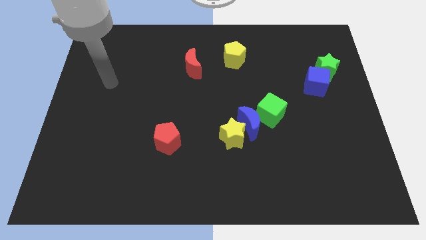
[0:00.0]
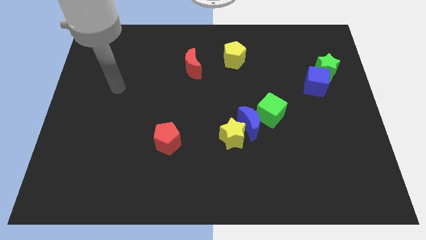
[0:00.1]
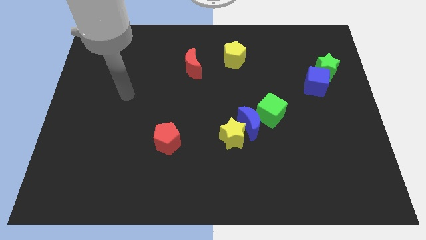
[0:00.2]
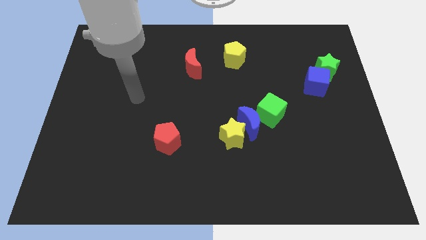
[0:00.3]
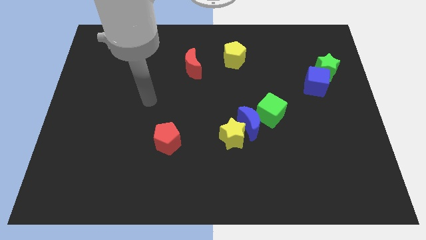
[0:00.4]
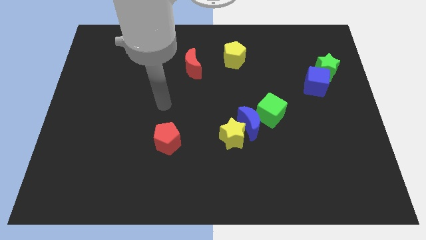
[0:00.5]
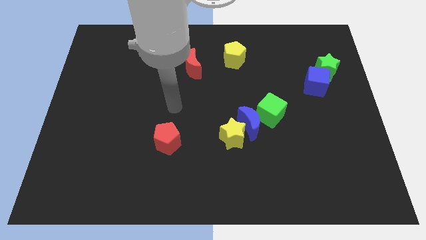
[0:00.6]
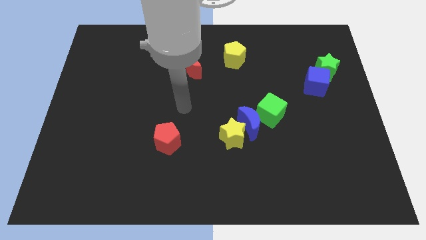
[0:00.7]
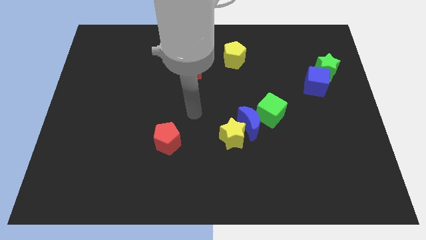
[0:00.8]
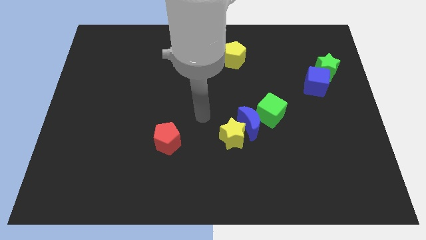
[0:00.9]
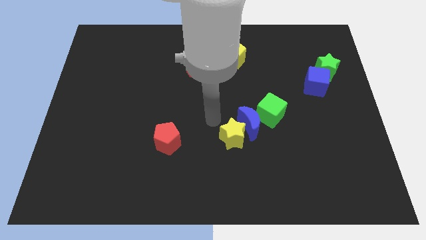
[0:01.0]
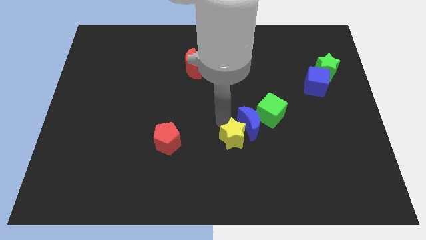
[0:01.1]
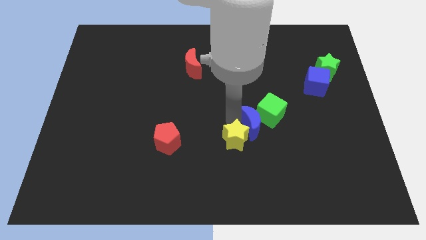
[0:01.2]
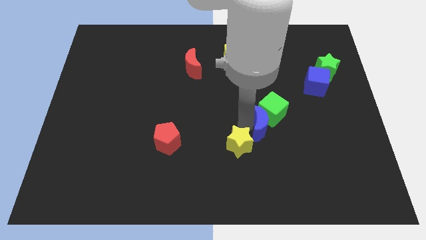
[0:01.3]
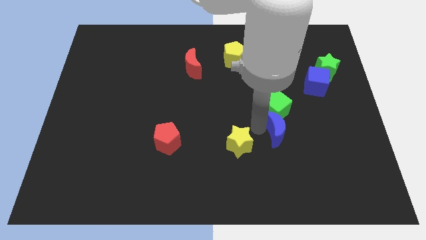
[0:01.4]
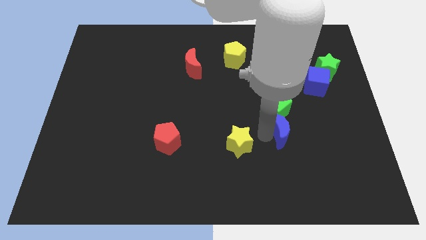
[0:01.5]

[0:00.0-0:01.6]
move the yellow star away from the blue moon

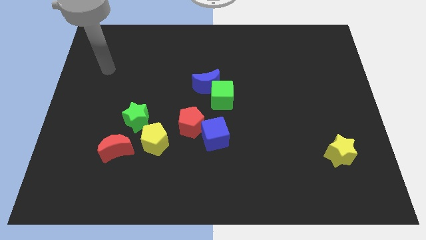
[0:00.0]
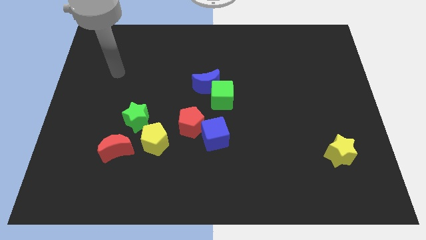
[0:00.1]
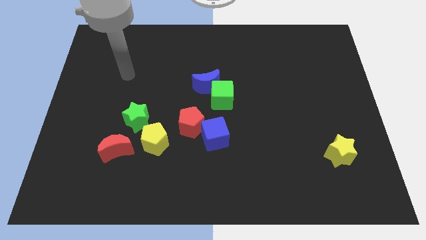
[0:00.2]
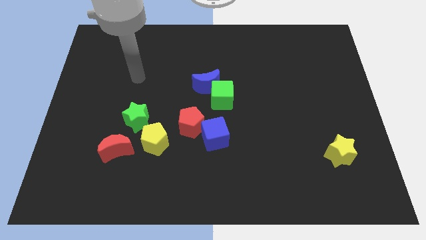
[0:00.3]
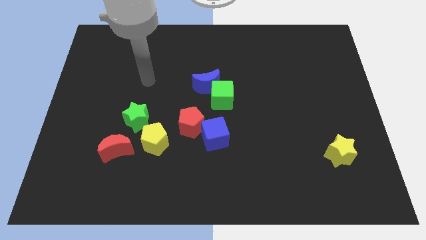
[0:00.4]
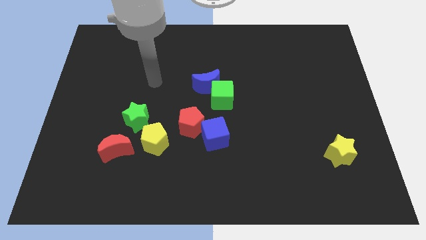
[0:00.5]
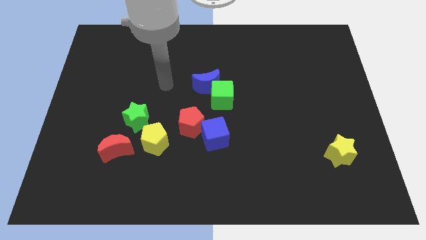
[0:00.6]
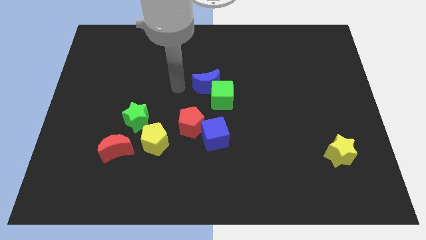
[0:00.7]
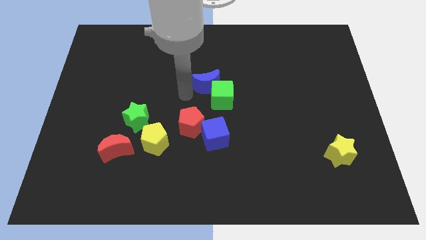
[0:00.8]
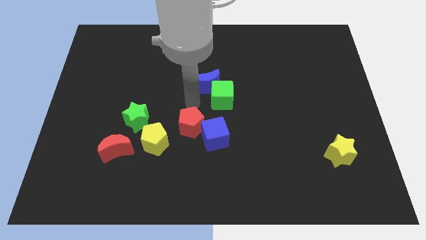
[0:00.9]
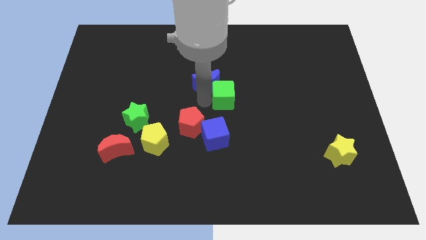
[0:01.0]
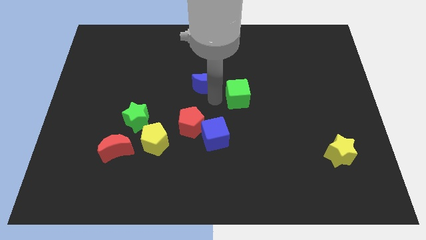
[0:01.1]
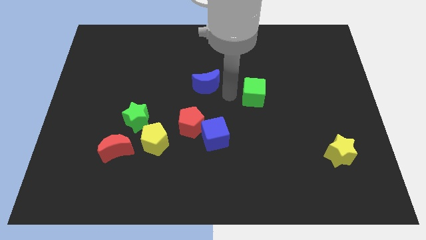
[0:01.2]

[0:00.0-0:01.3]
pull the blue moon apart from the green cube

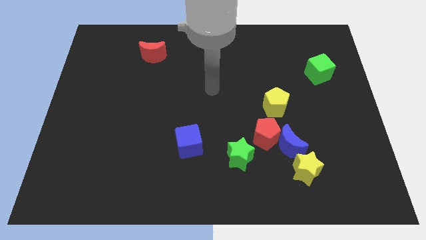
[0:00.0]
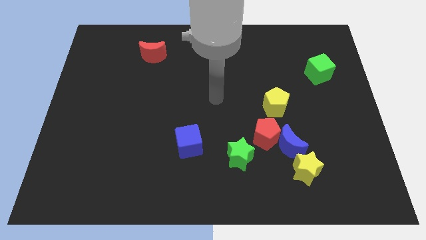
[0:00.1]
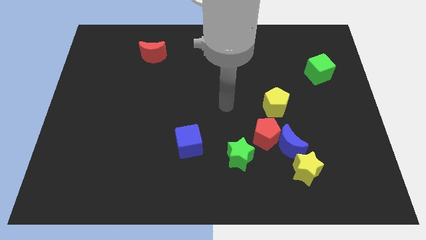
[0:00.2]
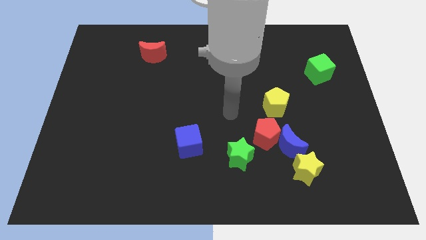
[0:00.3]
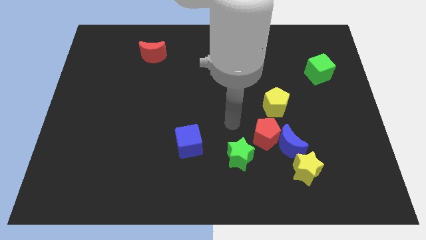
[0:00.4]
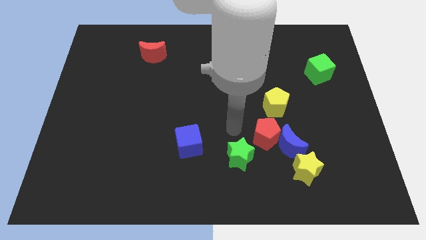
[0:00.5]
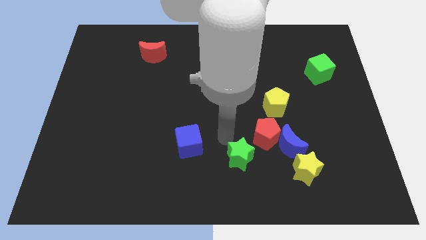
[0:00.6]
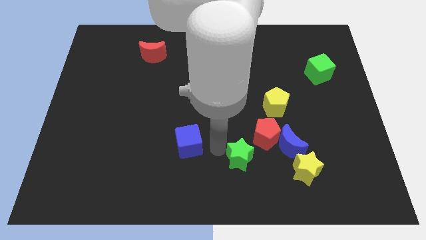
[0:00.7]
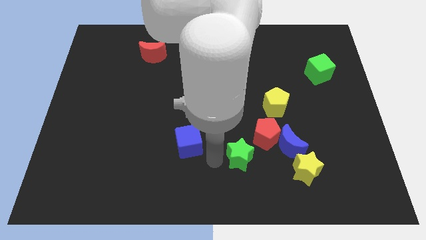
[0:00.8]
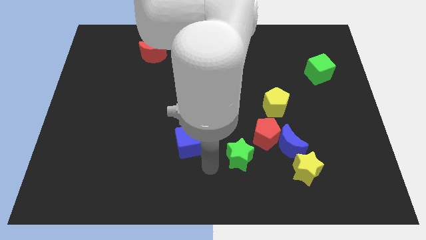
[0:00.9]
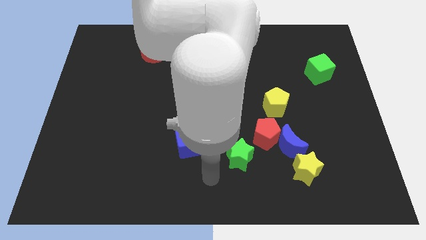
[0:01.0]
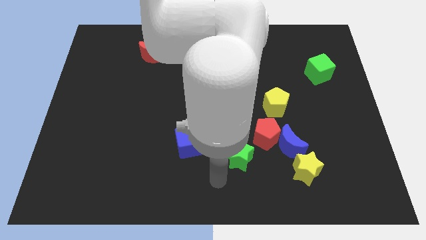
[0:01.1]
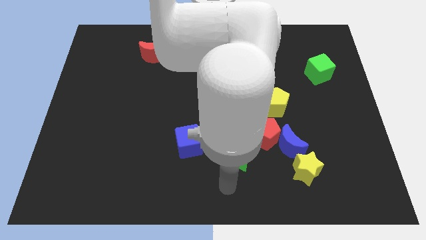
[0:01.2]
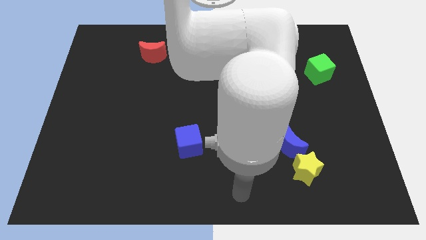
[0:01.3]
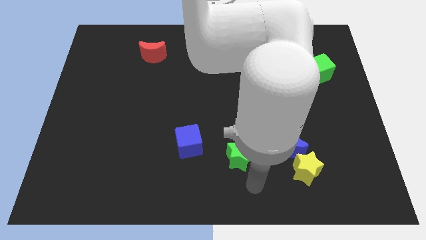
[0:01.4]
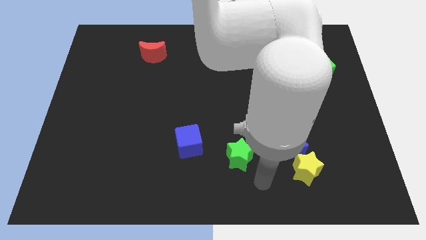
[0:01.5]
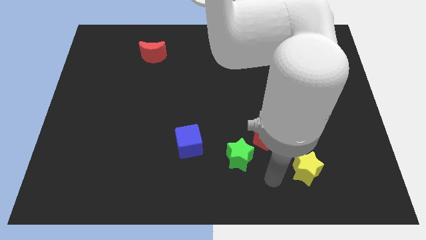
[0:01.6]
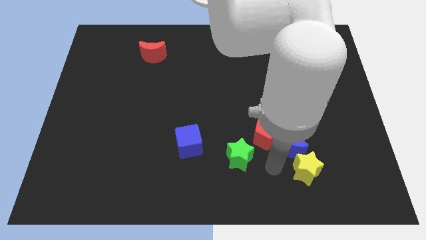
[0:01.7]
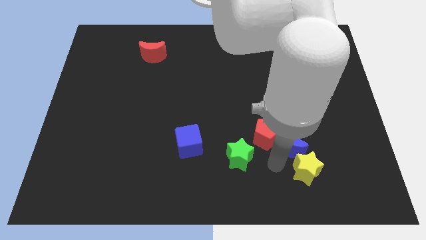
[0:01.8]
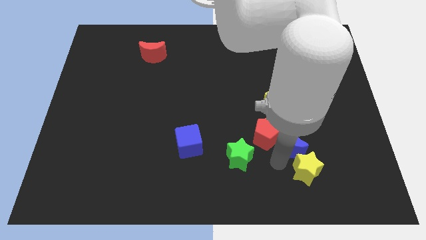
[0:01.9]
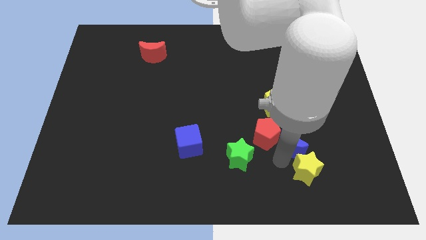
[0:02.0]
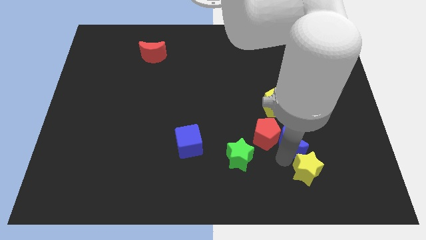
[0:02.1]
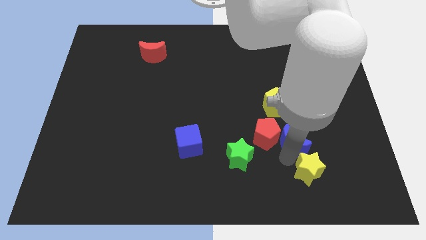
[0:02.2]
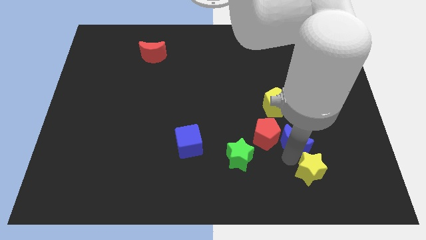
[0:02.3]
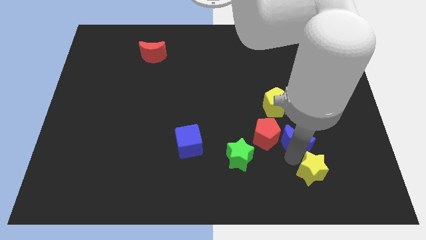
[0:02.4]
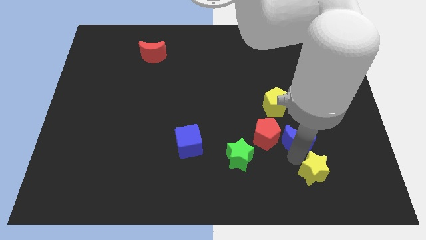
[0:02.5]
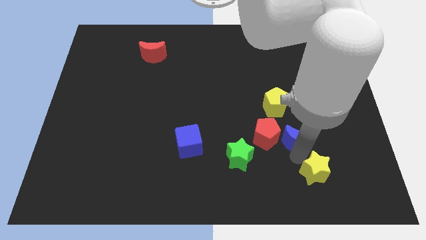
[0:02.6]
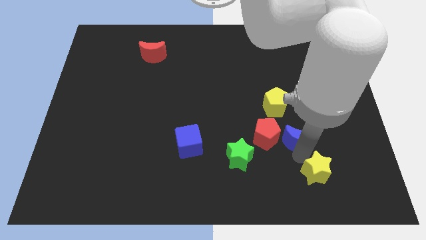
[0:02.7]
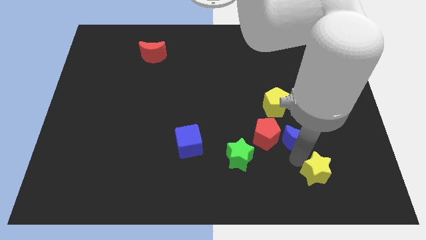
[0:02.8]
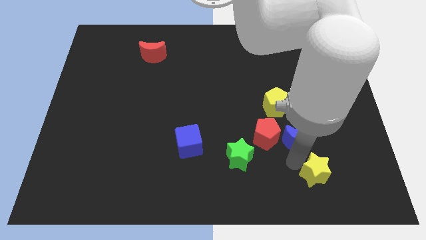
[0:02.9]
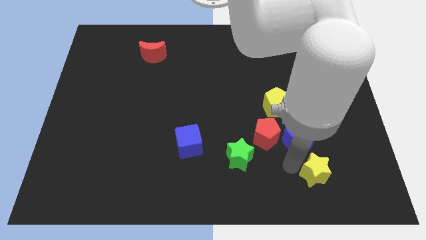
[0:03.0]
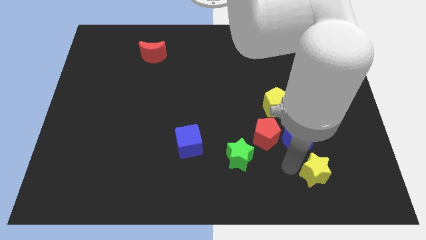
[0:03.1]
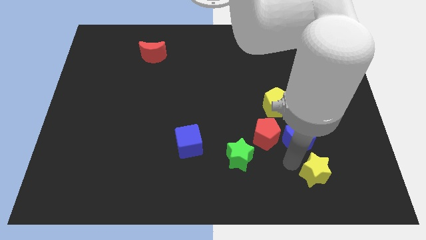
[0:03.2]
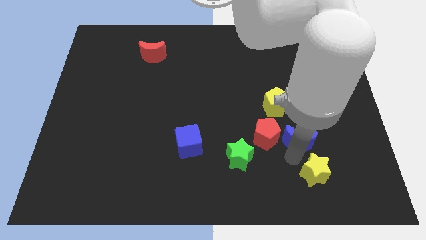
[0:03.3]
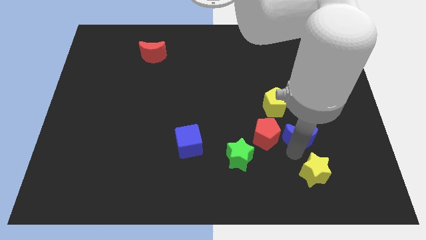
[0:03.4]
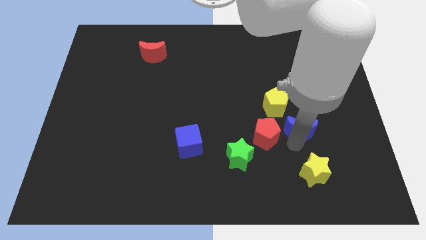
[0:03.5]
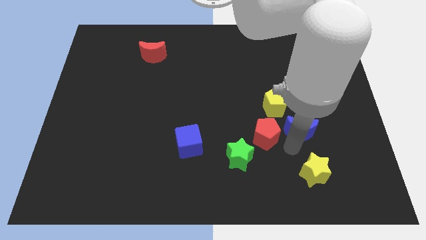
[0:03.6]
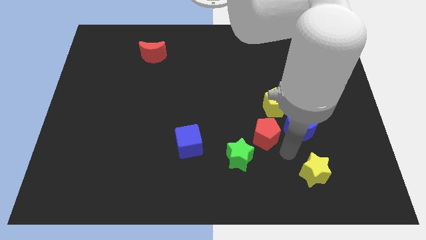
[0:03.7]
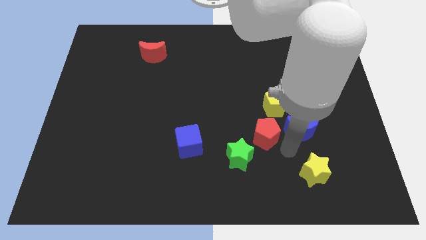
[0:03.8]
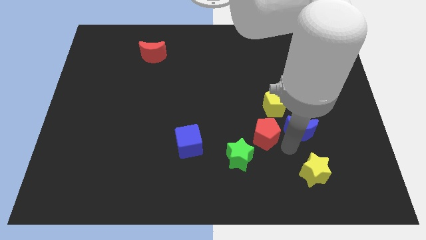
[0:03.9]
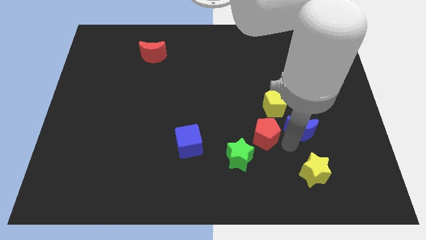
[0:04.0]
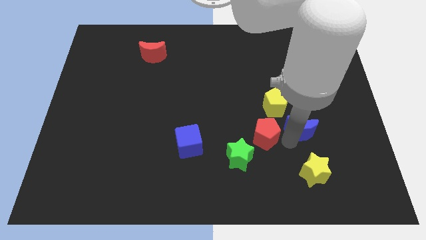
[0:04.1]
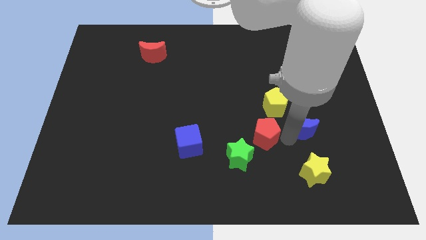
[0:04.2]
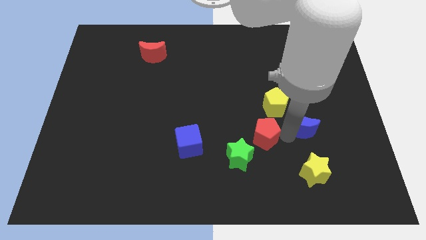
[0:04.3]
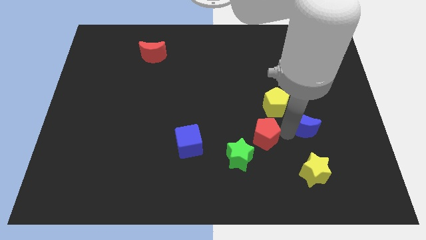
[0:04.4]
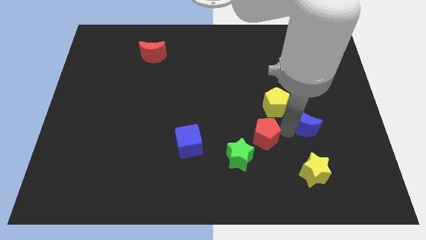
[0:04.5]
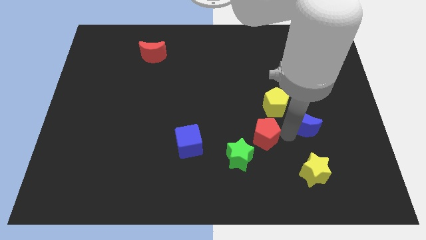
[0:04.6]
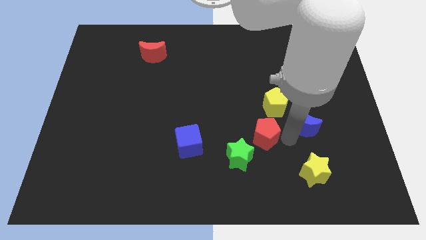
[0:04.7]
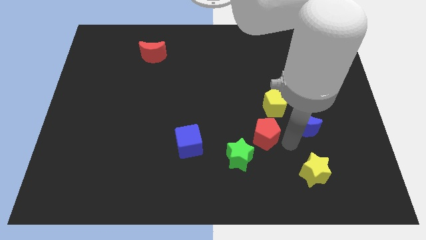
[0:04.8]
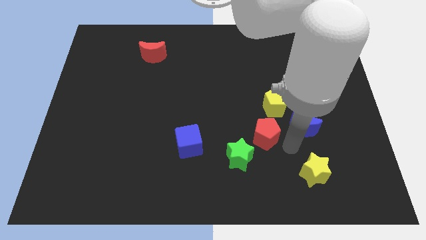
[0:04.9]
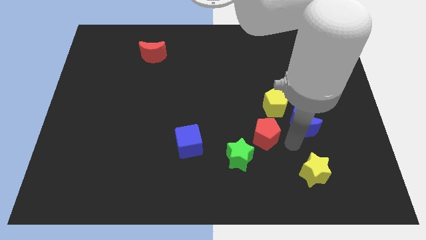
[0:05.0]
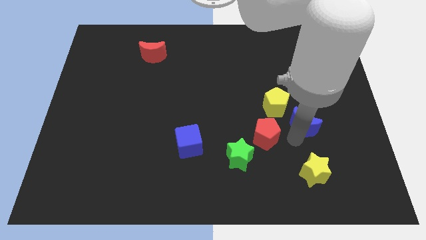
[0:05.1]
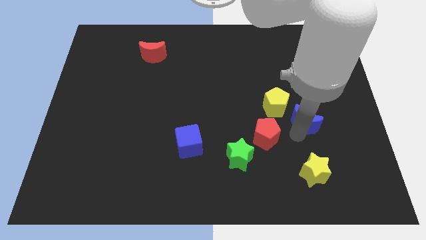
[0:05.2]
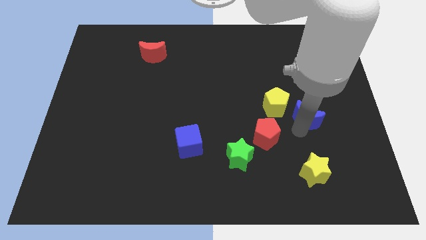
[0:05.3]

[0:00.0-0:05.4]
pull the blue moon apart from the red pentagon and yellow star

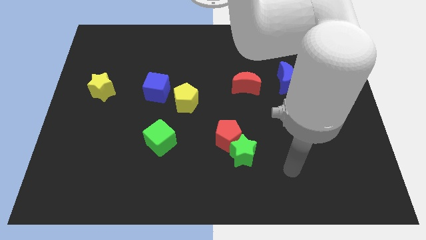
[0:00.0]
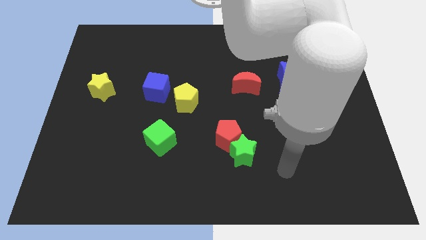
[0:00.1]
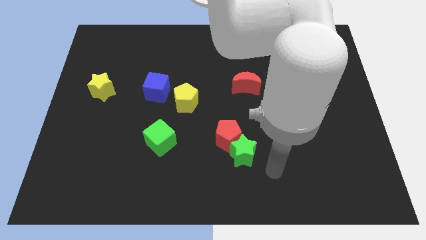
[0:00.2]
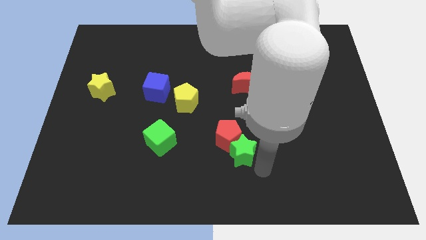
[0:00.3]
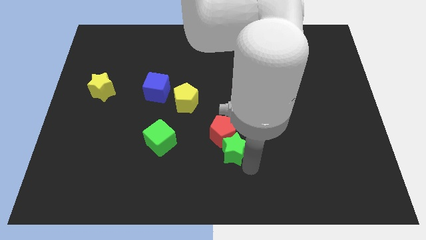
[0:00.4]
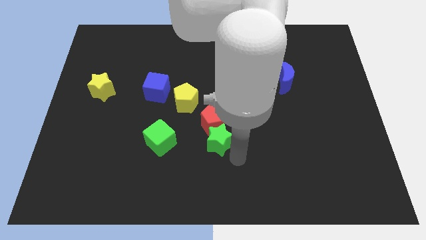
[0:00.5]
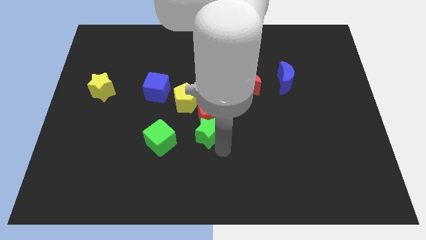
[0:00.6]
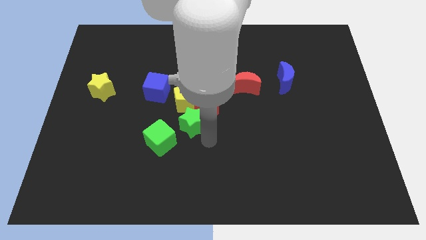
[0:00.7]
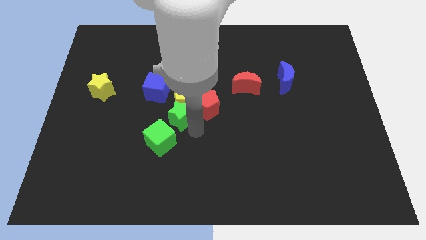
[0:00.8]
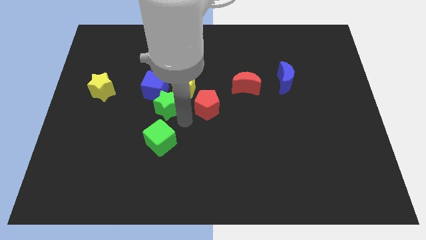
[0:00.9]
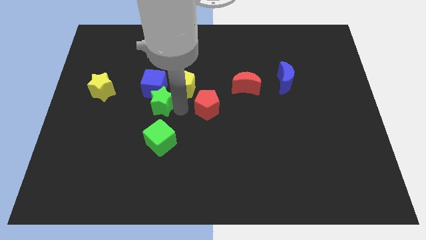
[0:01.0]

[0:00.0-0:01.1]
pull the red pentagon apart from the green star
